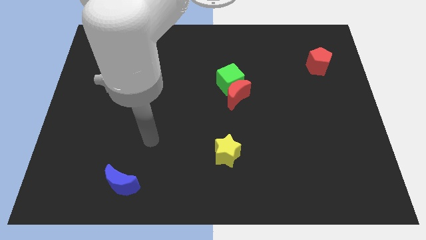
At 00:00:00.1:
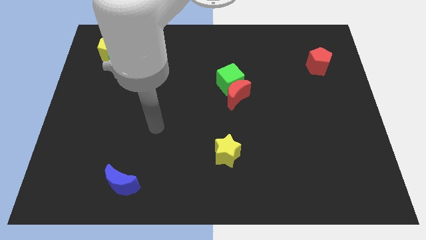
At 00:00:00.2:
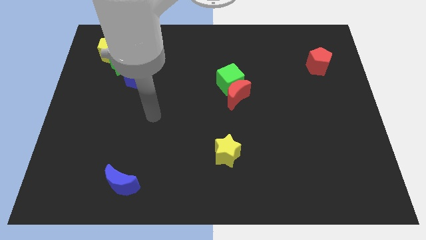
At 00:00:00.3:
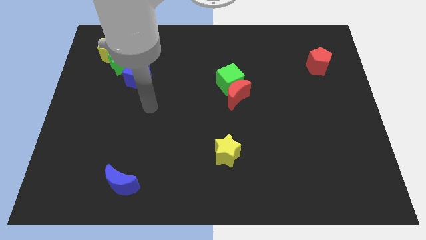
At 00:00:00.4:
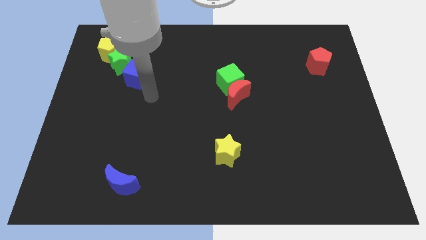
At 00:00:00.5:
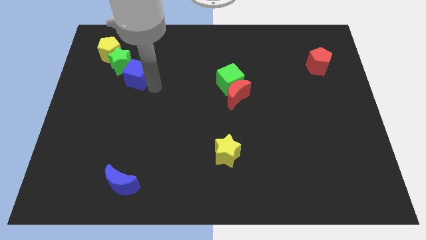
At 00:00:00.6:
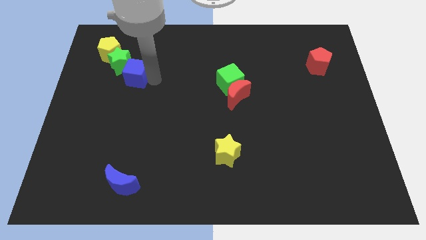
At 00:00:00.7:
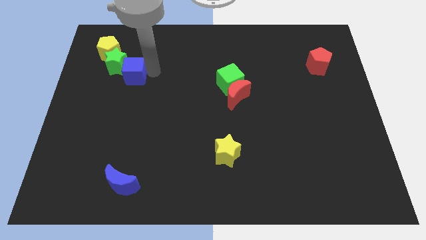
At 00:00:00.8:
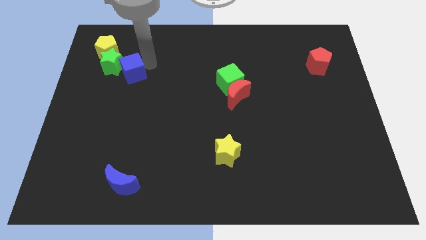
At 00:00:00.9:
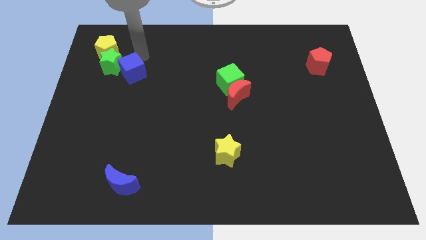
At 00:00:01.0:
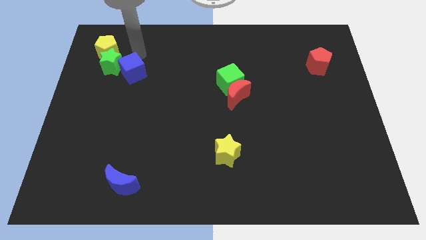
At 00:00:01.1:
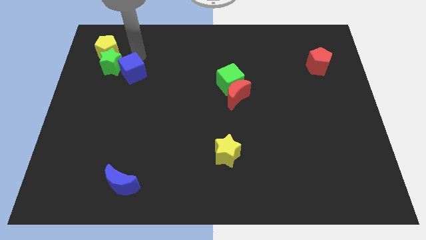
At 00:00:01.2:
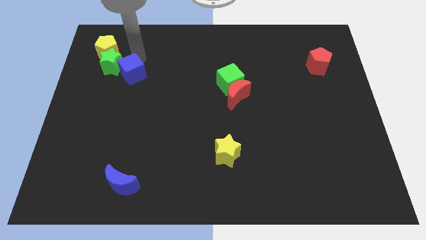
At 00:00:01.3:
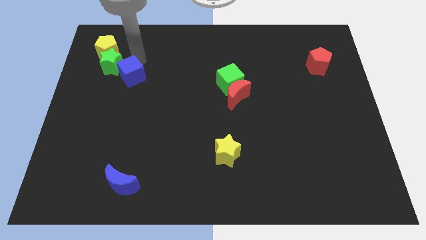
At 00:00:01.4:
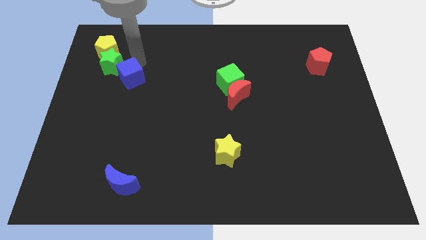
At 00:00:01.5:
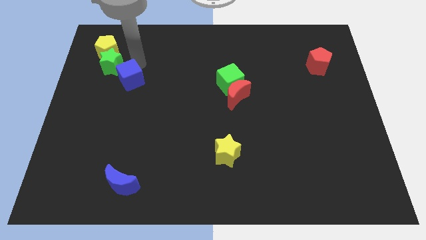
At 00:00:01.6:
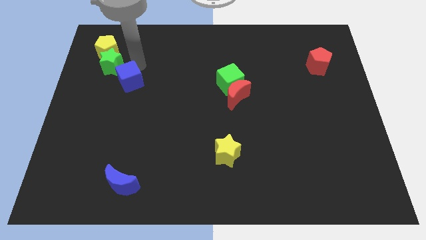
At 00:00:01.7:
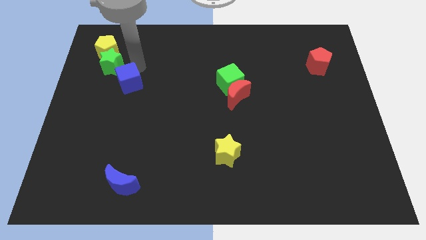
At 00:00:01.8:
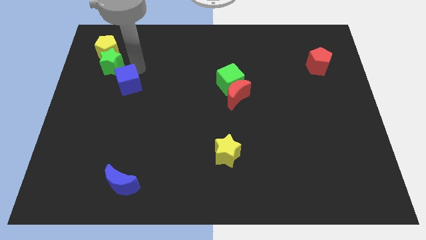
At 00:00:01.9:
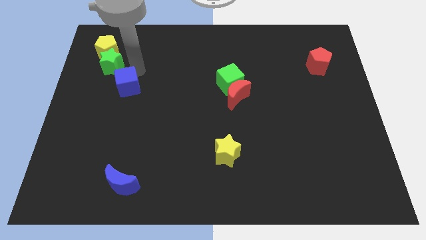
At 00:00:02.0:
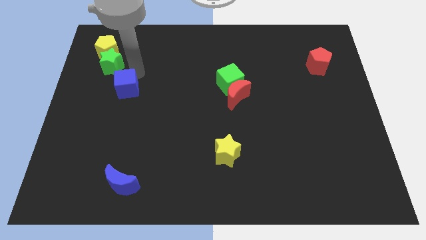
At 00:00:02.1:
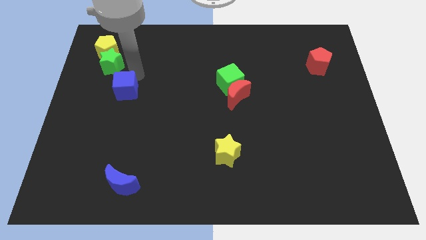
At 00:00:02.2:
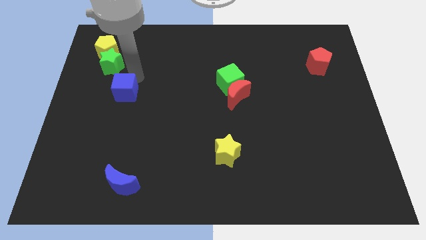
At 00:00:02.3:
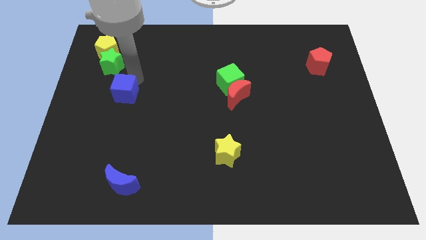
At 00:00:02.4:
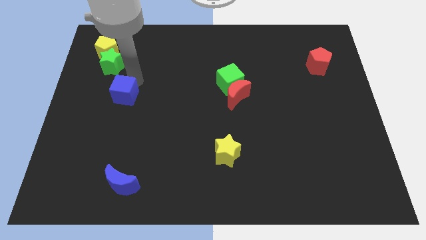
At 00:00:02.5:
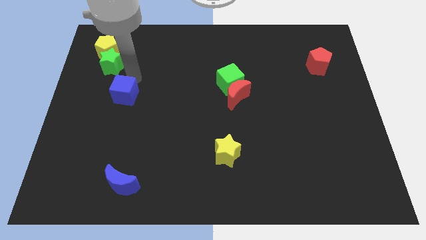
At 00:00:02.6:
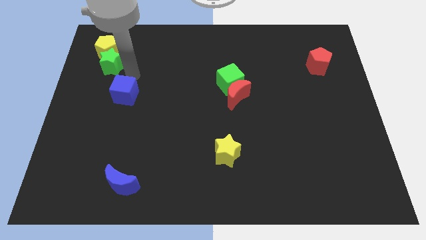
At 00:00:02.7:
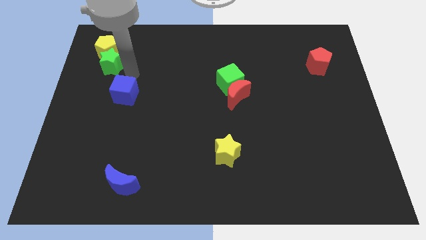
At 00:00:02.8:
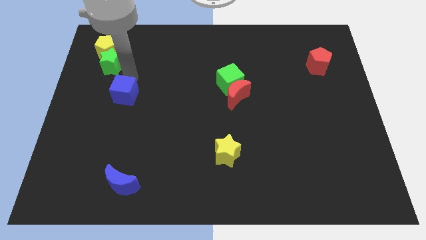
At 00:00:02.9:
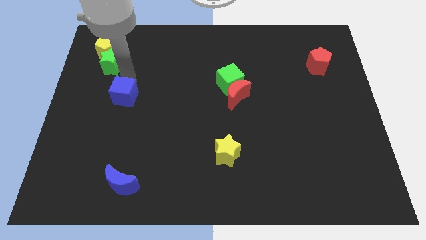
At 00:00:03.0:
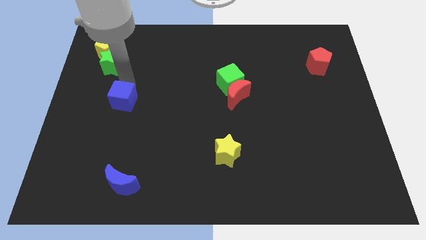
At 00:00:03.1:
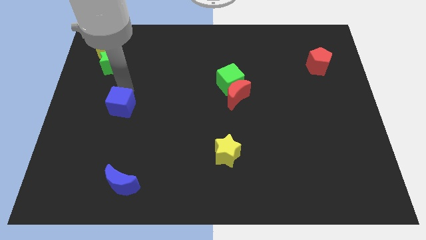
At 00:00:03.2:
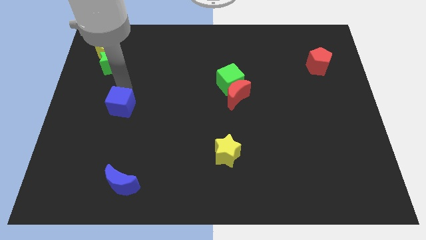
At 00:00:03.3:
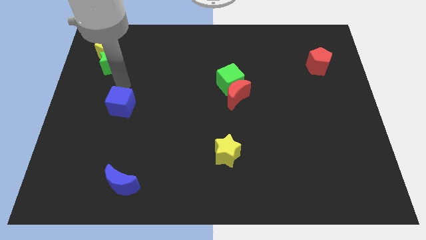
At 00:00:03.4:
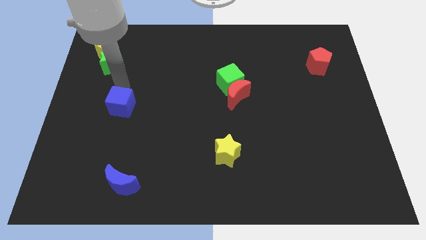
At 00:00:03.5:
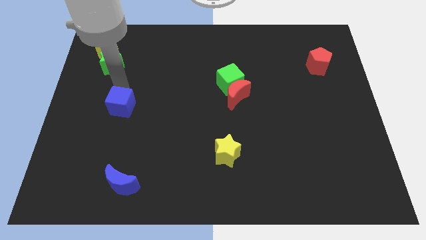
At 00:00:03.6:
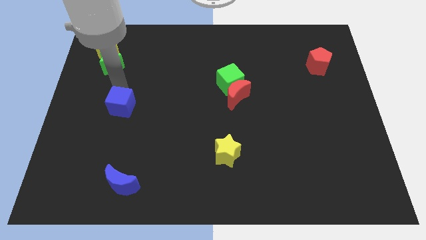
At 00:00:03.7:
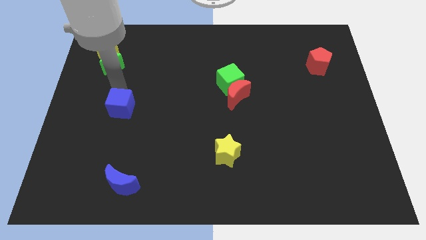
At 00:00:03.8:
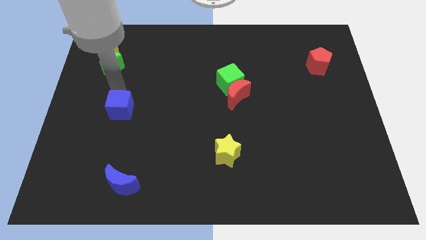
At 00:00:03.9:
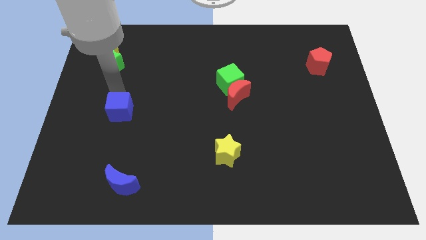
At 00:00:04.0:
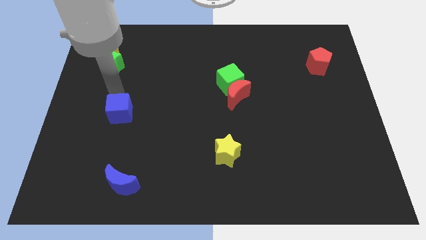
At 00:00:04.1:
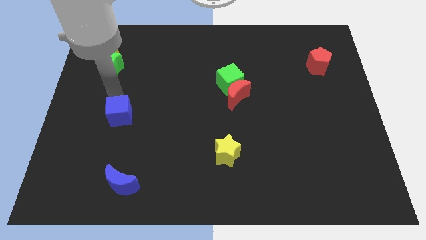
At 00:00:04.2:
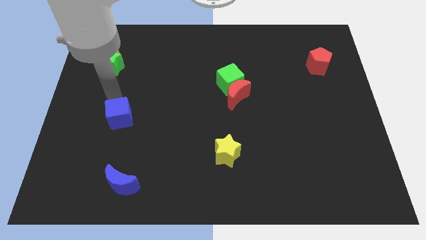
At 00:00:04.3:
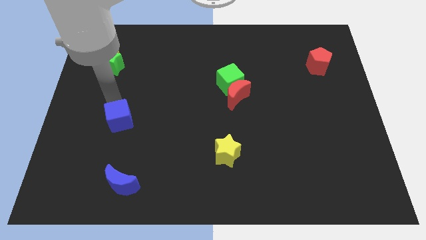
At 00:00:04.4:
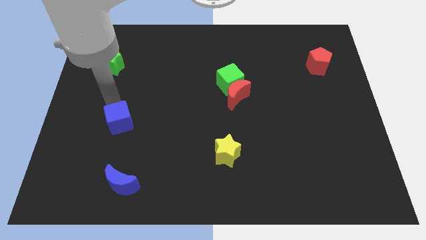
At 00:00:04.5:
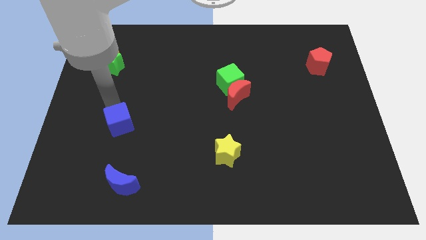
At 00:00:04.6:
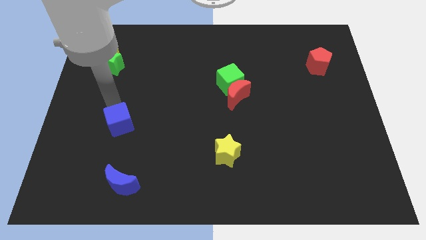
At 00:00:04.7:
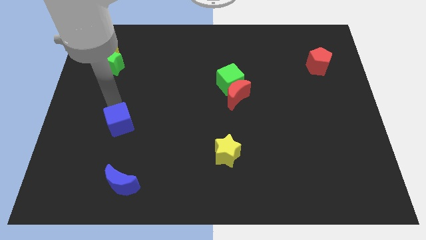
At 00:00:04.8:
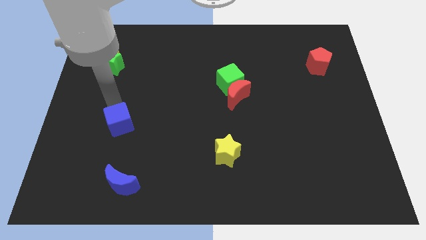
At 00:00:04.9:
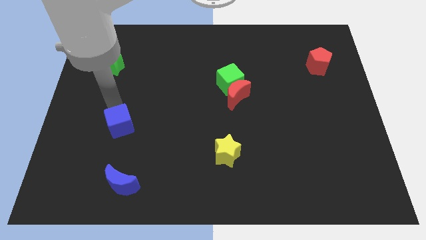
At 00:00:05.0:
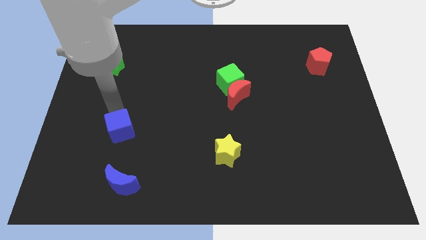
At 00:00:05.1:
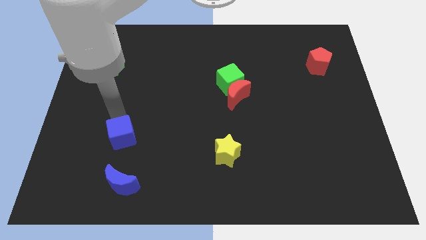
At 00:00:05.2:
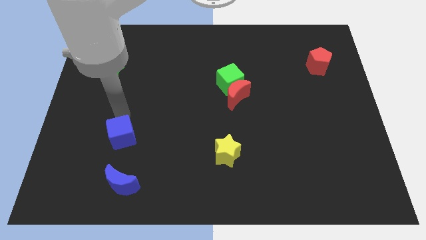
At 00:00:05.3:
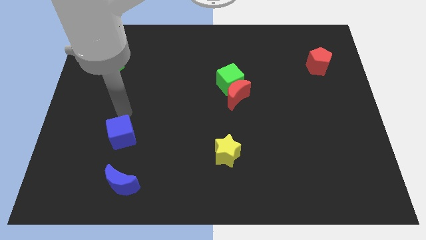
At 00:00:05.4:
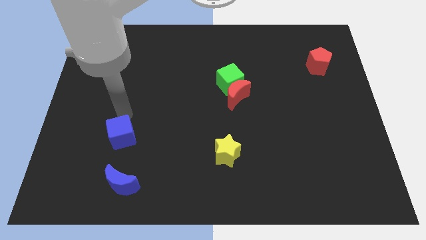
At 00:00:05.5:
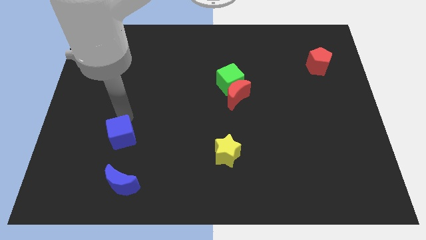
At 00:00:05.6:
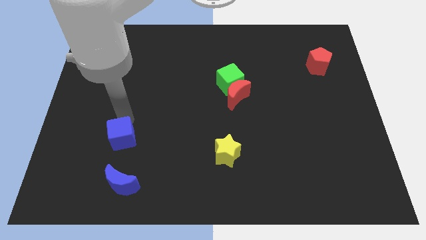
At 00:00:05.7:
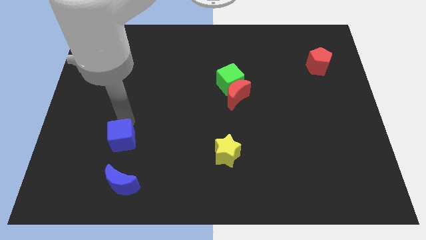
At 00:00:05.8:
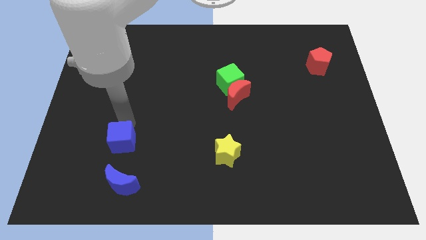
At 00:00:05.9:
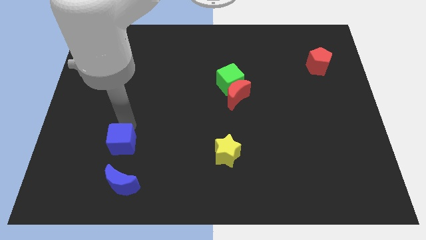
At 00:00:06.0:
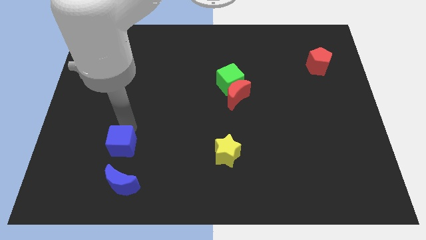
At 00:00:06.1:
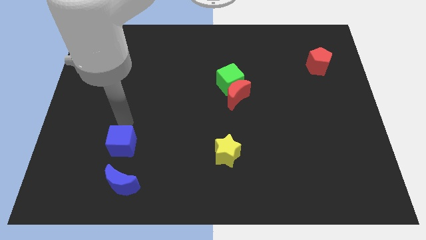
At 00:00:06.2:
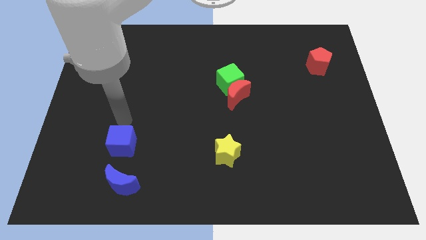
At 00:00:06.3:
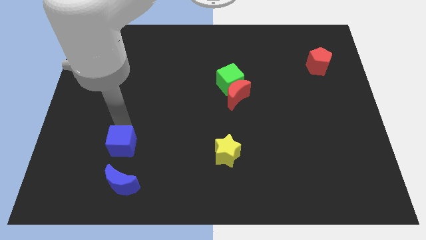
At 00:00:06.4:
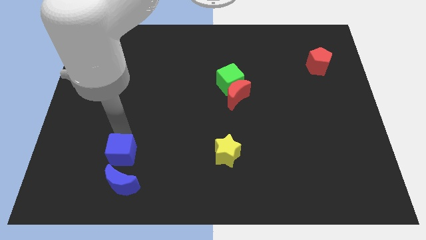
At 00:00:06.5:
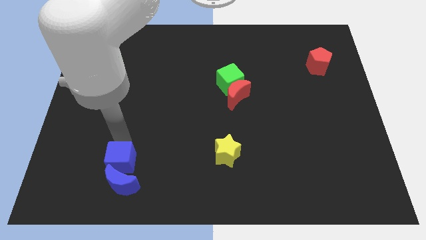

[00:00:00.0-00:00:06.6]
slide the blue cube towards the blue moon

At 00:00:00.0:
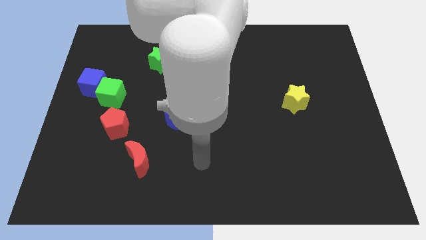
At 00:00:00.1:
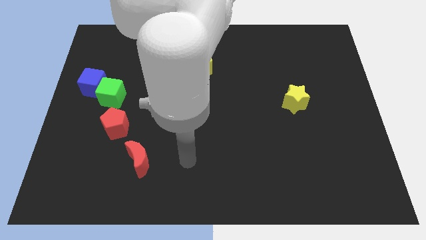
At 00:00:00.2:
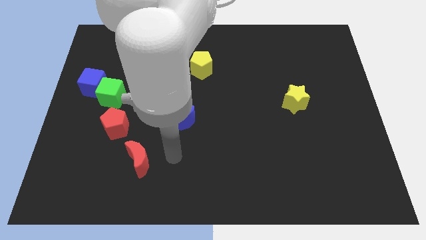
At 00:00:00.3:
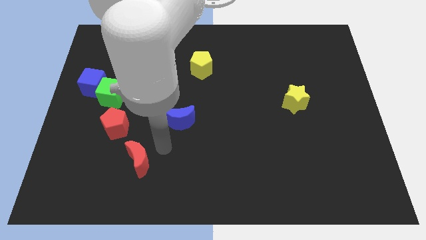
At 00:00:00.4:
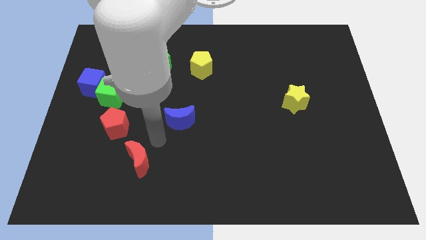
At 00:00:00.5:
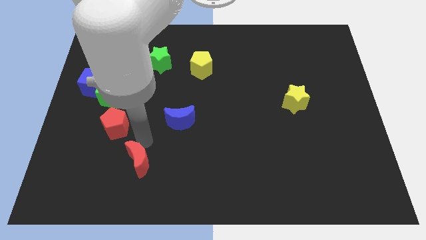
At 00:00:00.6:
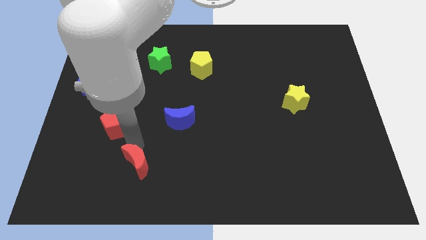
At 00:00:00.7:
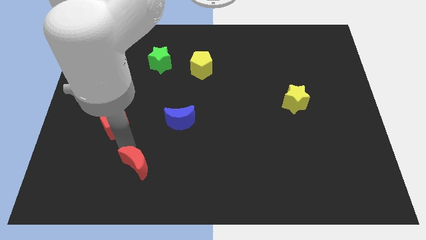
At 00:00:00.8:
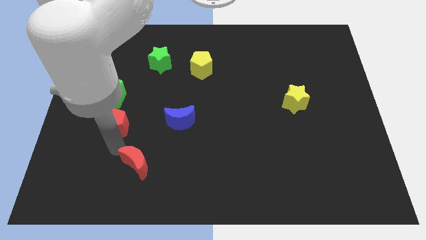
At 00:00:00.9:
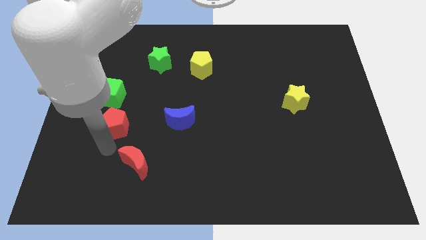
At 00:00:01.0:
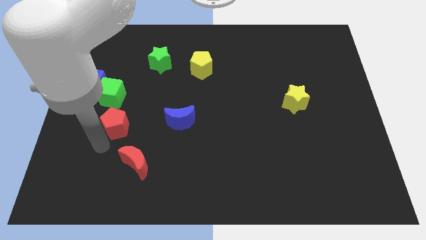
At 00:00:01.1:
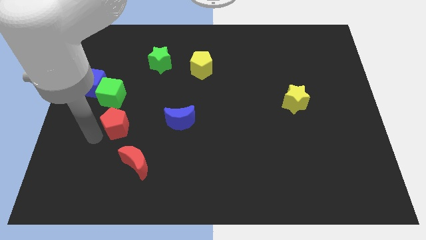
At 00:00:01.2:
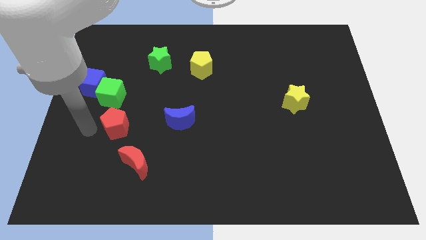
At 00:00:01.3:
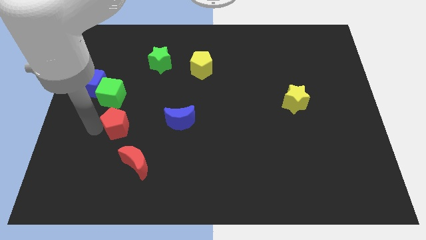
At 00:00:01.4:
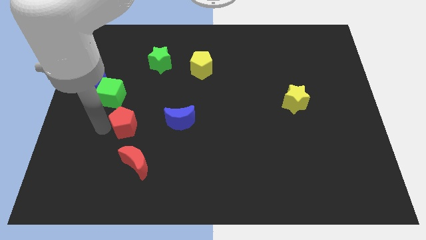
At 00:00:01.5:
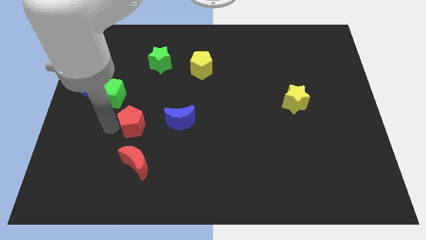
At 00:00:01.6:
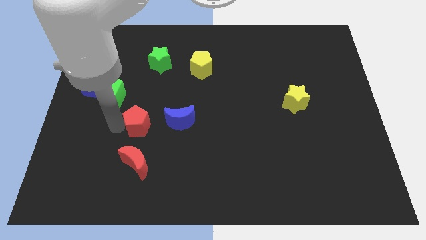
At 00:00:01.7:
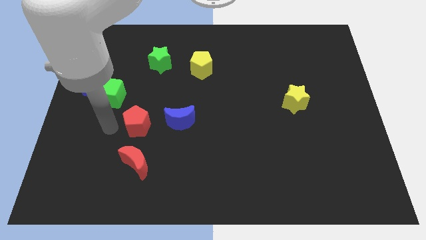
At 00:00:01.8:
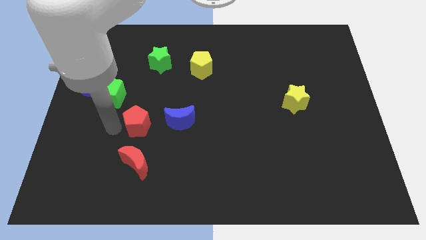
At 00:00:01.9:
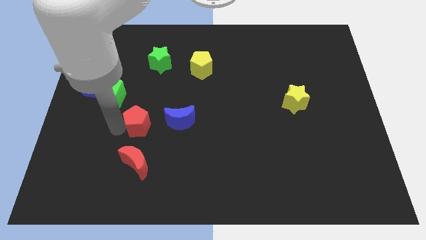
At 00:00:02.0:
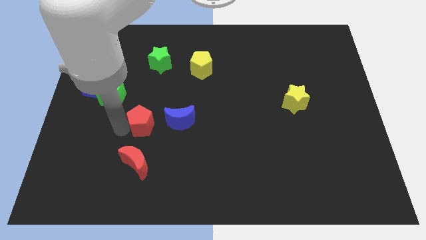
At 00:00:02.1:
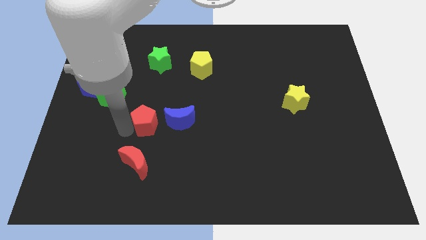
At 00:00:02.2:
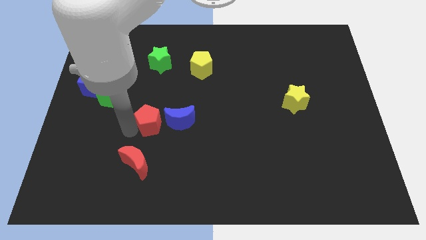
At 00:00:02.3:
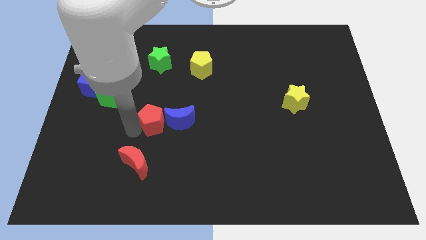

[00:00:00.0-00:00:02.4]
put the red pentagon towards the blue moon
